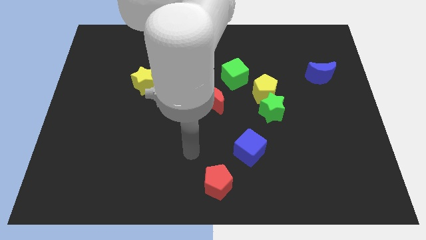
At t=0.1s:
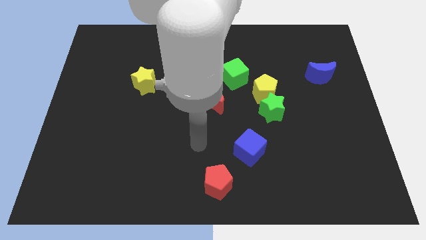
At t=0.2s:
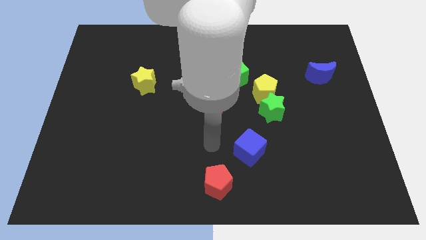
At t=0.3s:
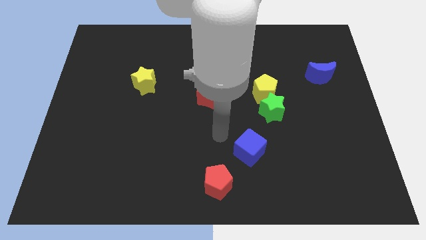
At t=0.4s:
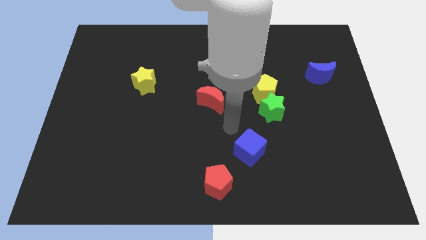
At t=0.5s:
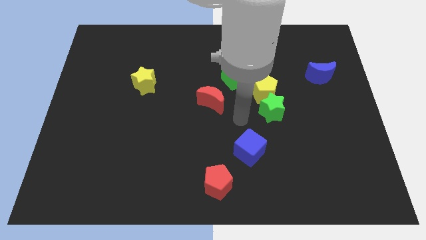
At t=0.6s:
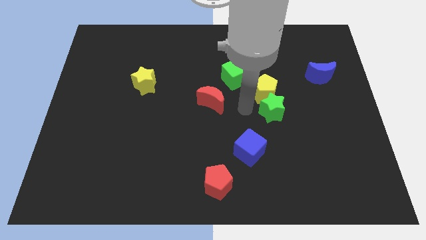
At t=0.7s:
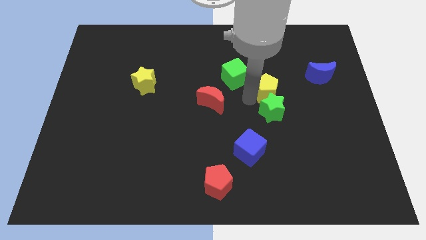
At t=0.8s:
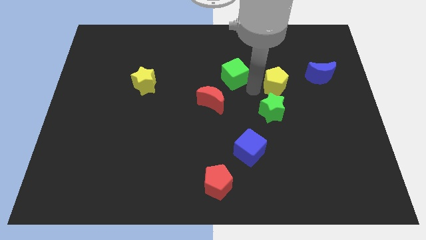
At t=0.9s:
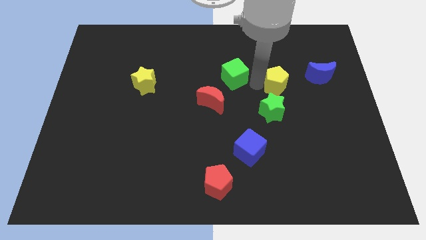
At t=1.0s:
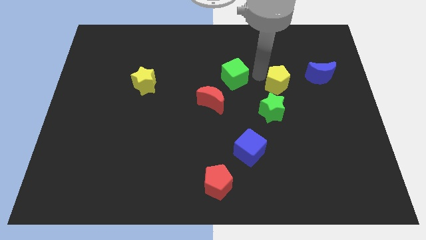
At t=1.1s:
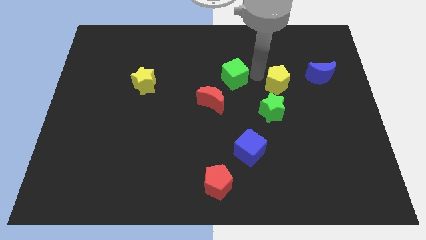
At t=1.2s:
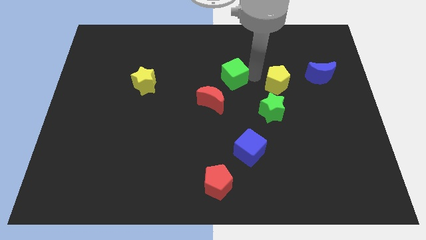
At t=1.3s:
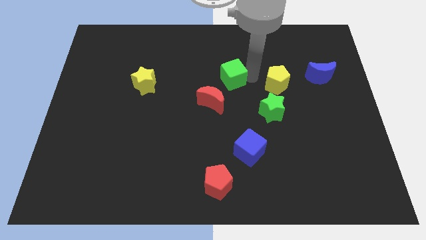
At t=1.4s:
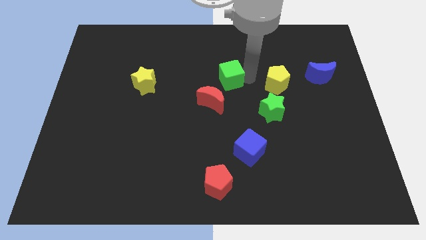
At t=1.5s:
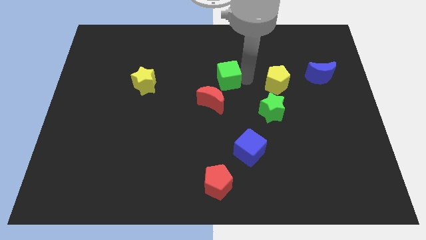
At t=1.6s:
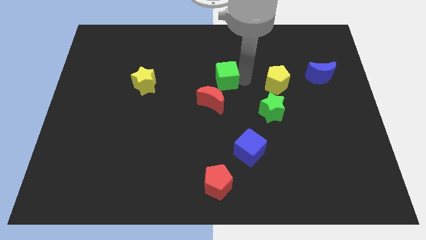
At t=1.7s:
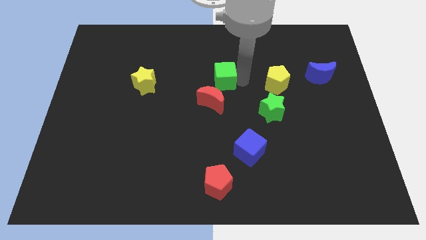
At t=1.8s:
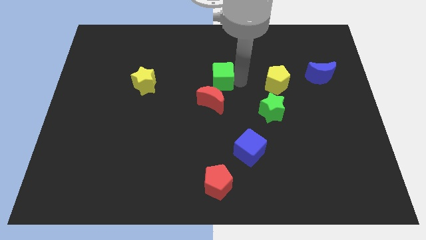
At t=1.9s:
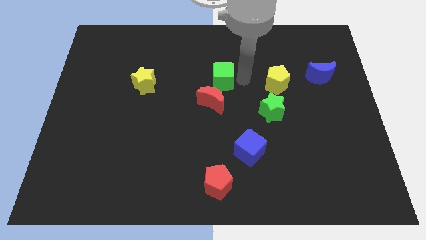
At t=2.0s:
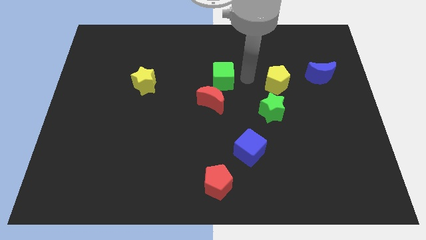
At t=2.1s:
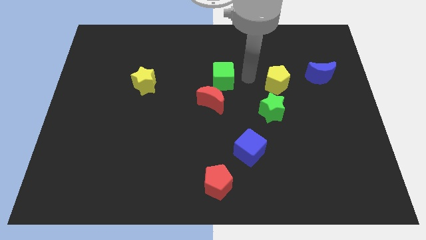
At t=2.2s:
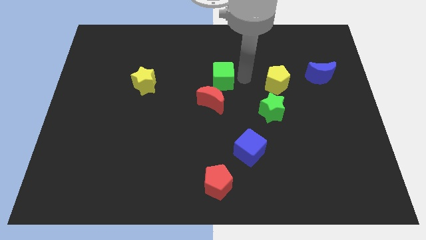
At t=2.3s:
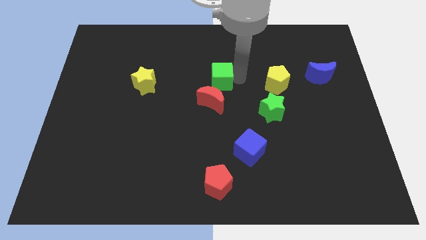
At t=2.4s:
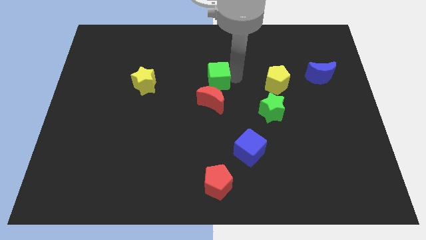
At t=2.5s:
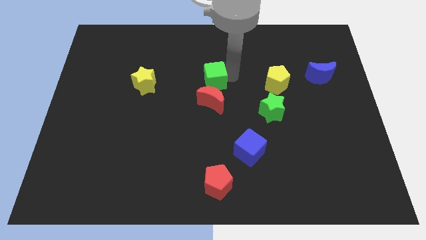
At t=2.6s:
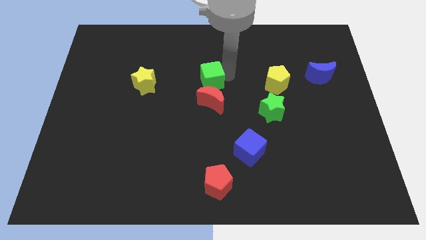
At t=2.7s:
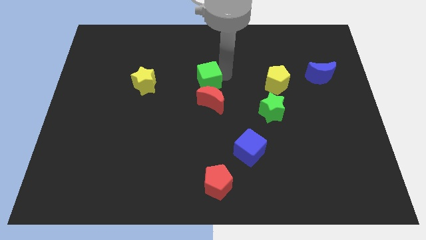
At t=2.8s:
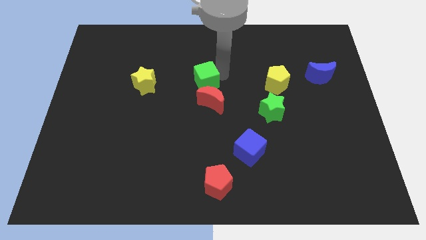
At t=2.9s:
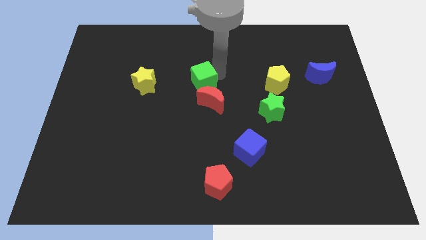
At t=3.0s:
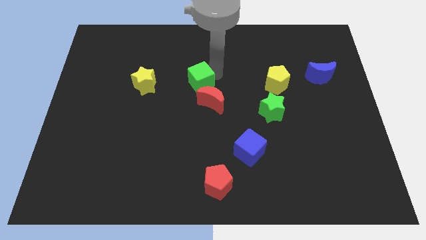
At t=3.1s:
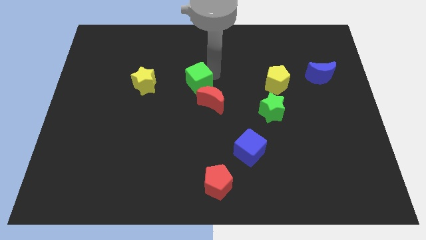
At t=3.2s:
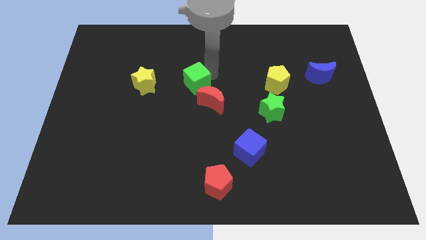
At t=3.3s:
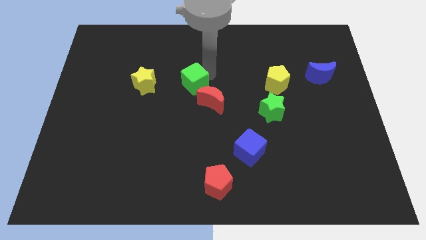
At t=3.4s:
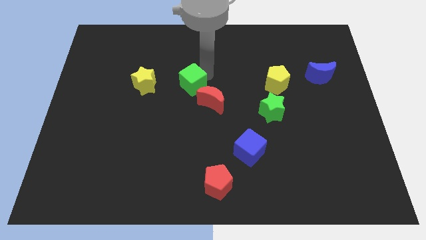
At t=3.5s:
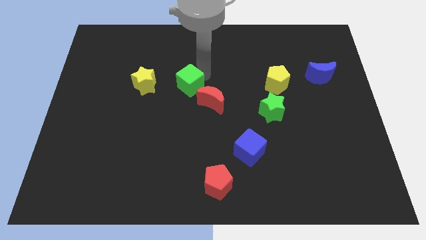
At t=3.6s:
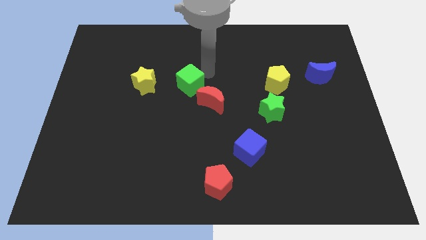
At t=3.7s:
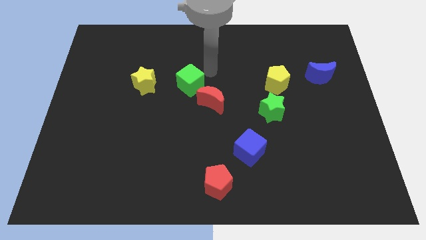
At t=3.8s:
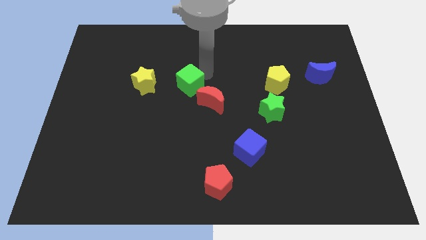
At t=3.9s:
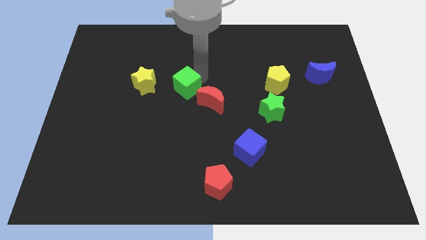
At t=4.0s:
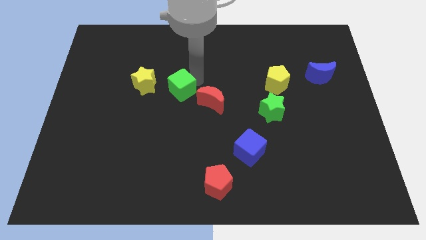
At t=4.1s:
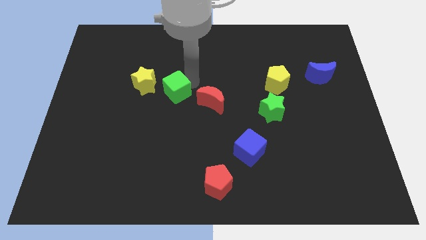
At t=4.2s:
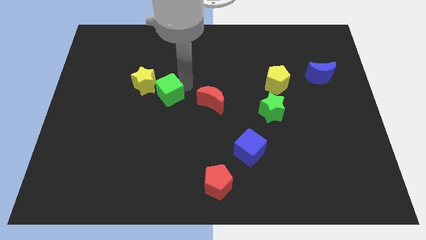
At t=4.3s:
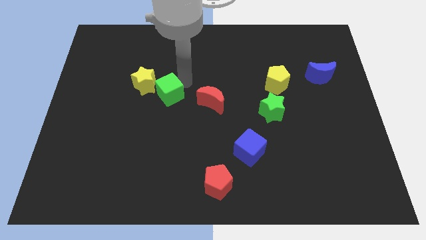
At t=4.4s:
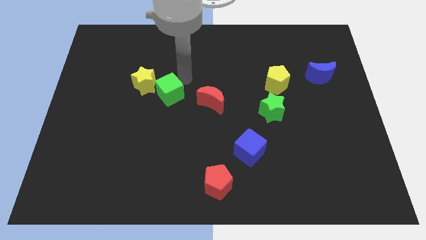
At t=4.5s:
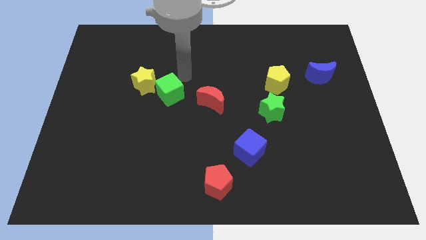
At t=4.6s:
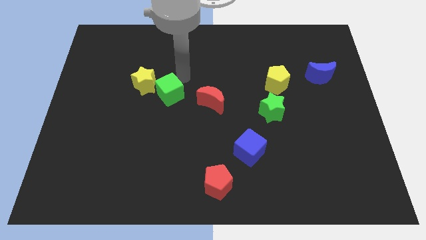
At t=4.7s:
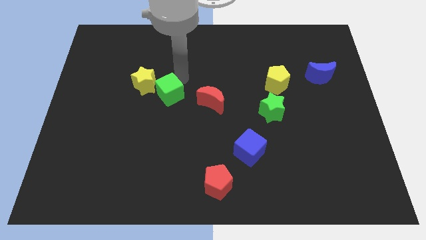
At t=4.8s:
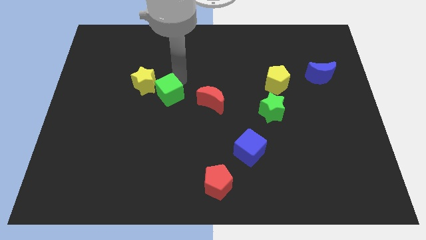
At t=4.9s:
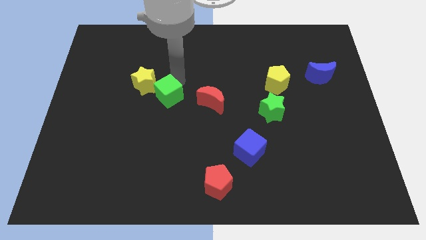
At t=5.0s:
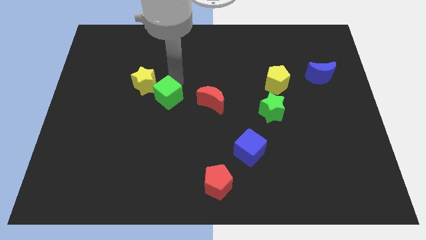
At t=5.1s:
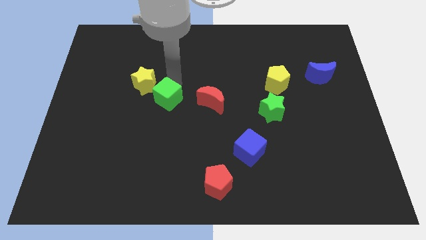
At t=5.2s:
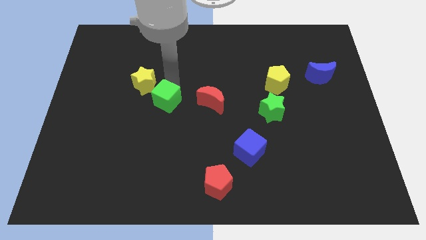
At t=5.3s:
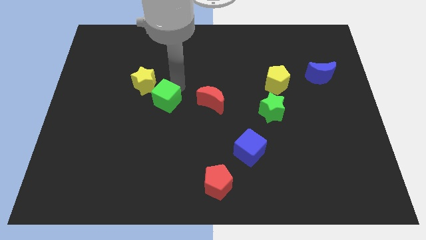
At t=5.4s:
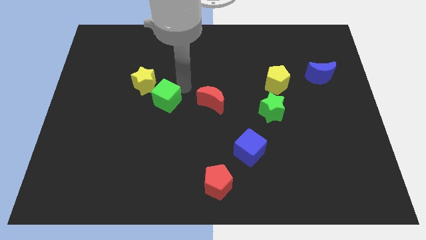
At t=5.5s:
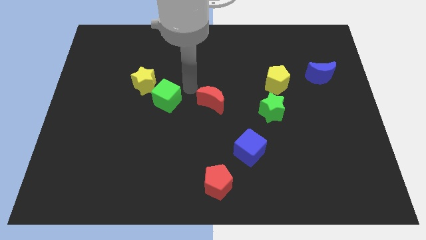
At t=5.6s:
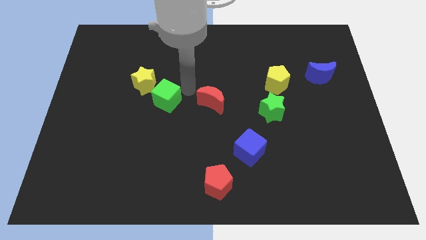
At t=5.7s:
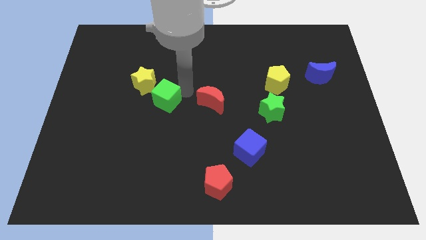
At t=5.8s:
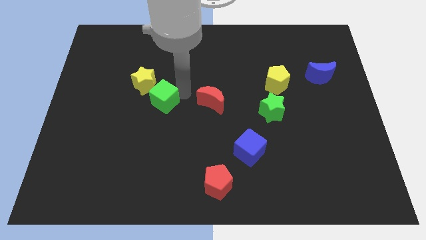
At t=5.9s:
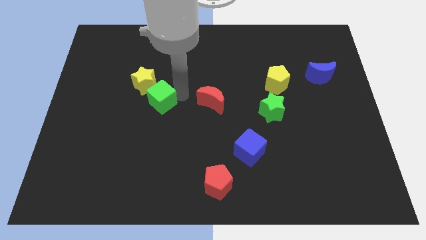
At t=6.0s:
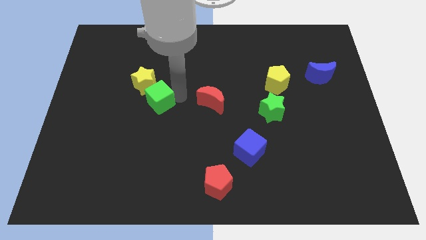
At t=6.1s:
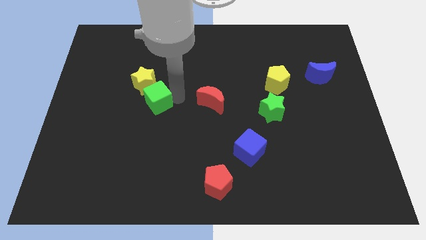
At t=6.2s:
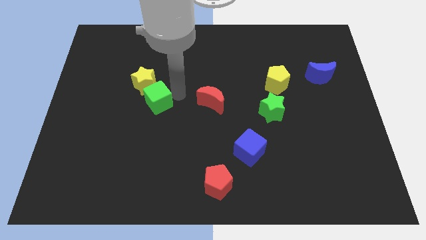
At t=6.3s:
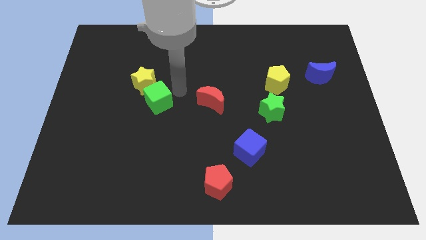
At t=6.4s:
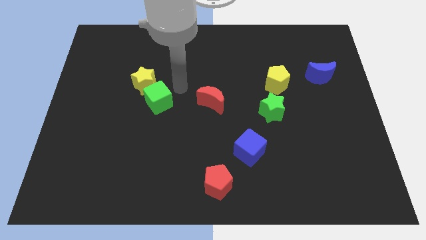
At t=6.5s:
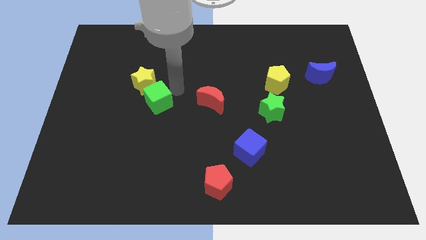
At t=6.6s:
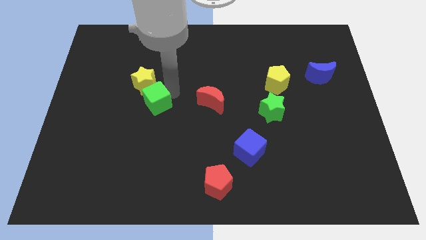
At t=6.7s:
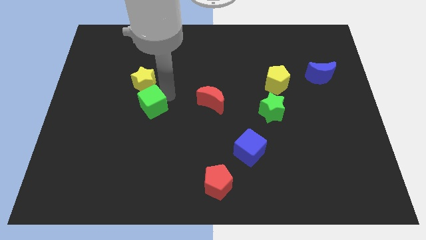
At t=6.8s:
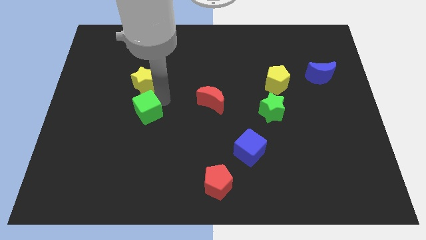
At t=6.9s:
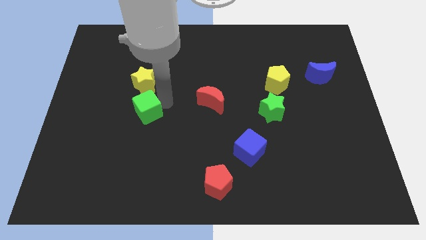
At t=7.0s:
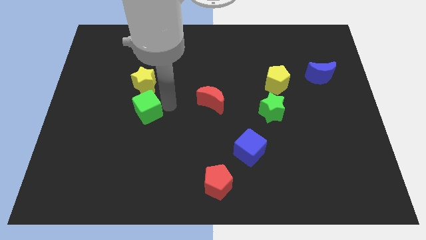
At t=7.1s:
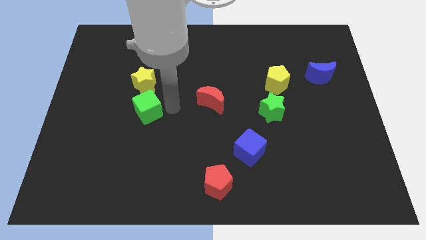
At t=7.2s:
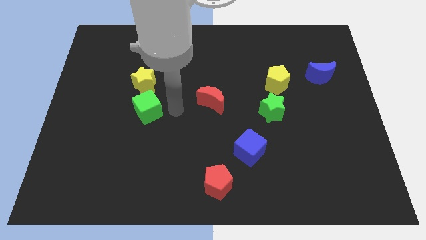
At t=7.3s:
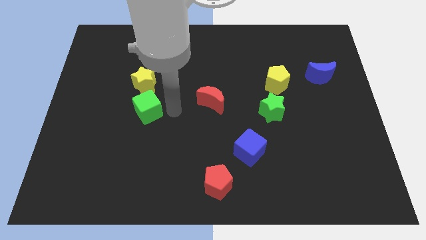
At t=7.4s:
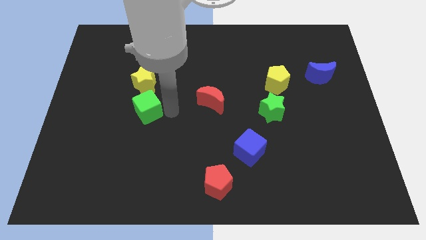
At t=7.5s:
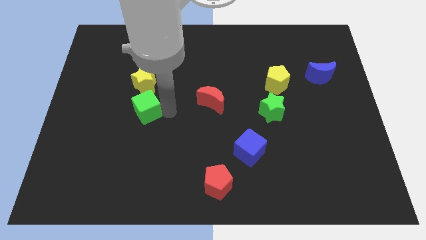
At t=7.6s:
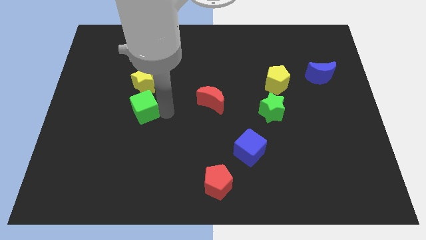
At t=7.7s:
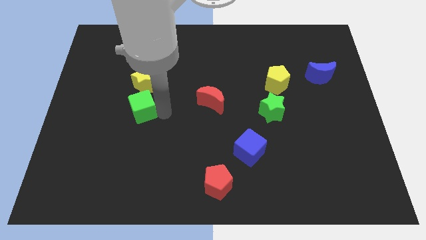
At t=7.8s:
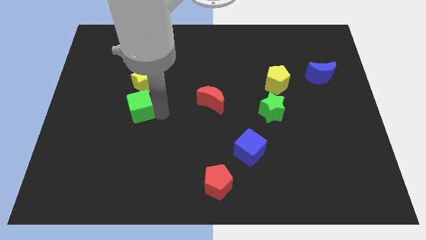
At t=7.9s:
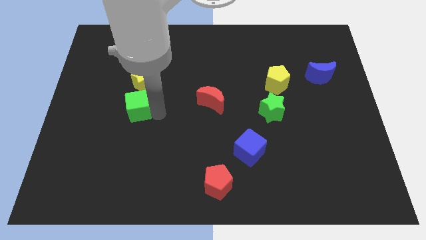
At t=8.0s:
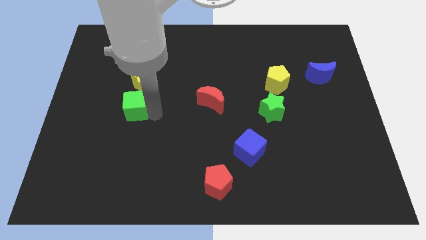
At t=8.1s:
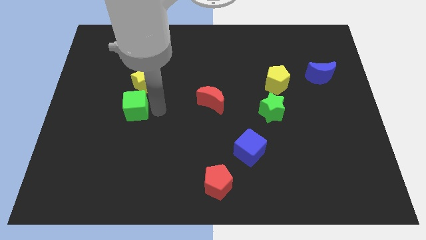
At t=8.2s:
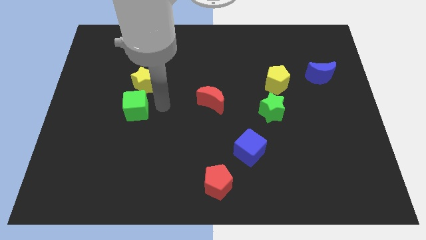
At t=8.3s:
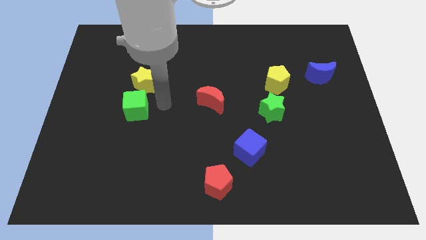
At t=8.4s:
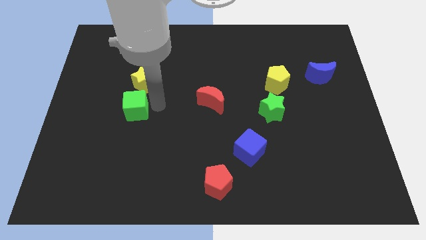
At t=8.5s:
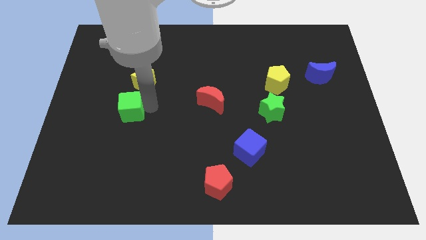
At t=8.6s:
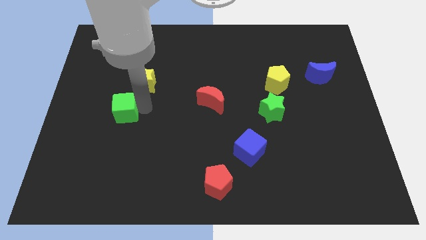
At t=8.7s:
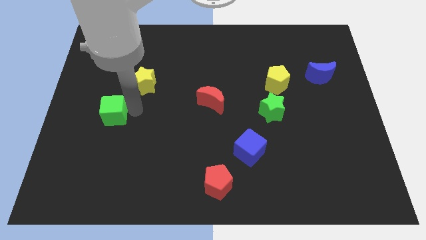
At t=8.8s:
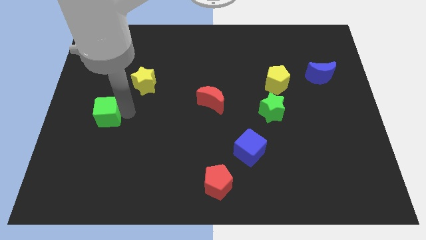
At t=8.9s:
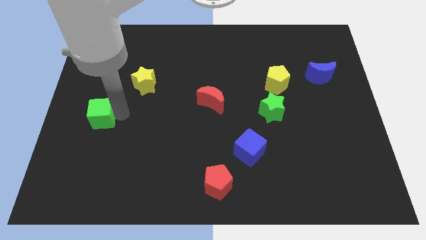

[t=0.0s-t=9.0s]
put the green cube to the left side of the board
